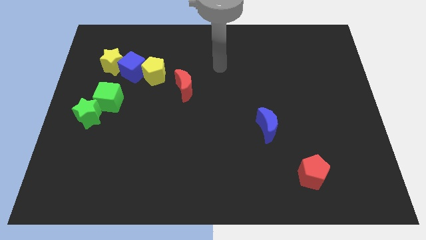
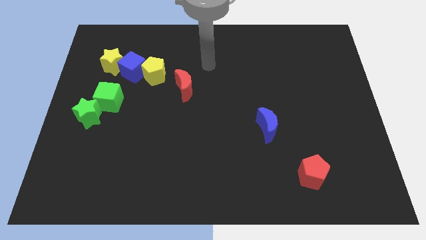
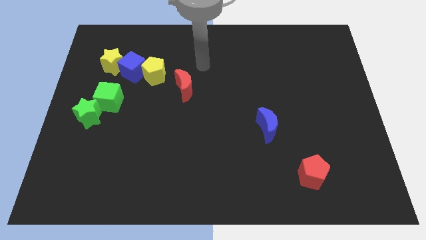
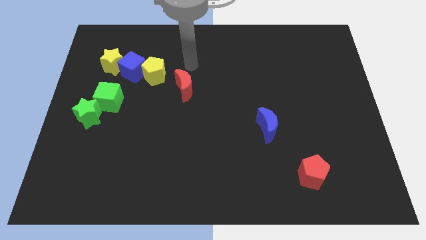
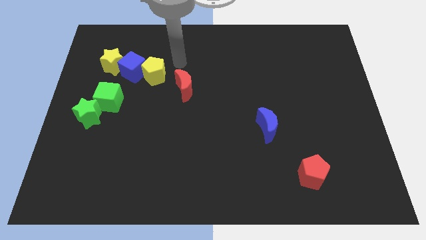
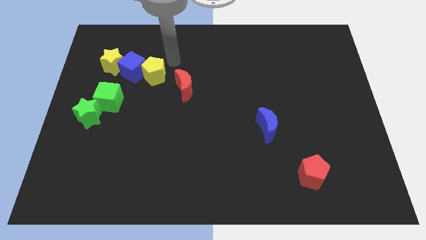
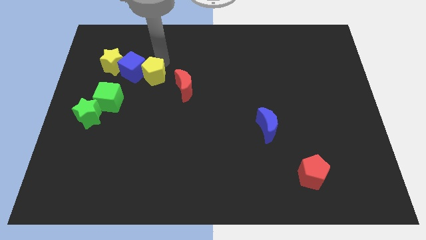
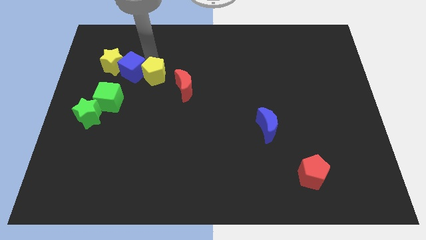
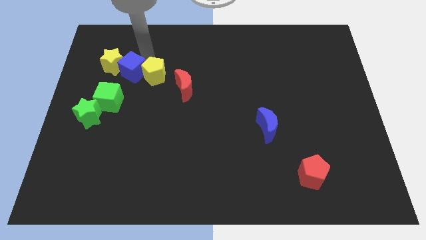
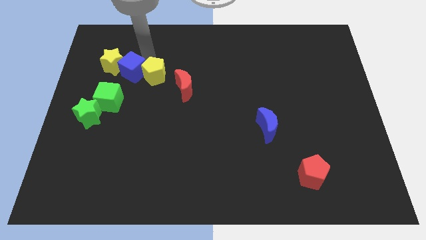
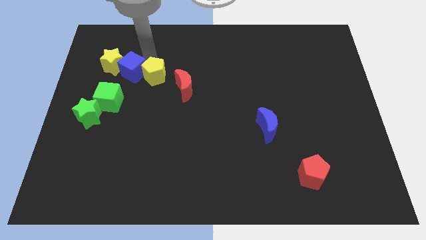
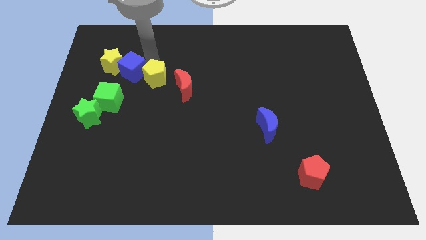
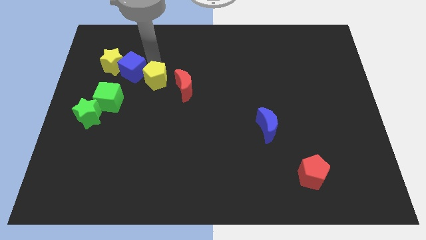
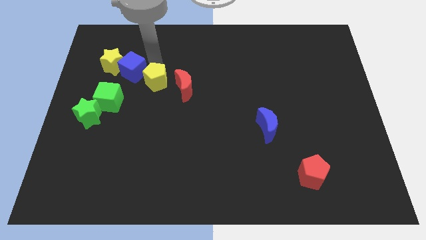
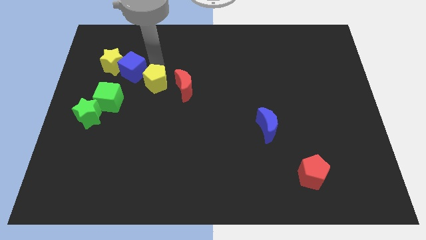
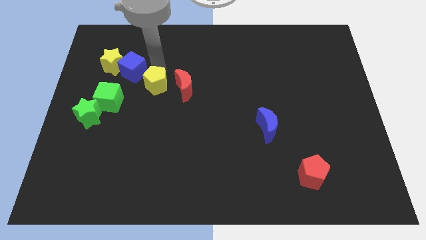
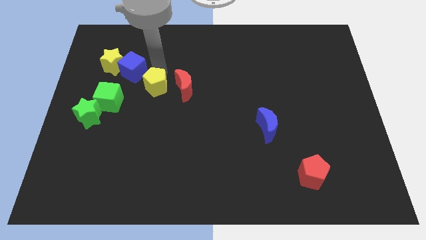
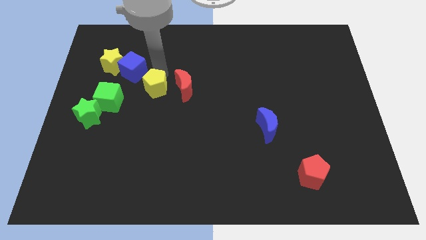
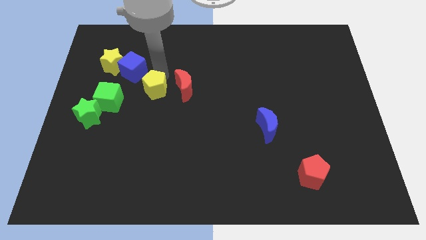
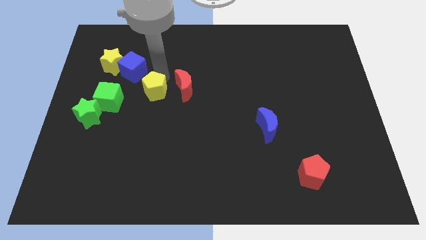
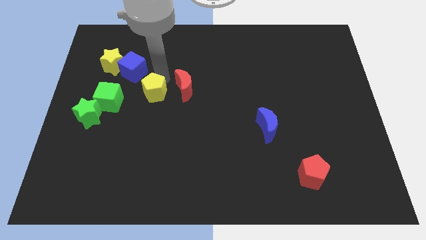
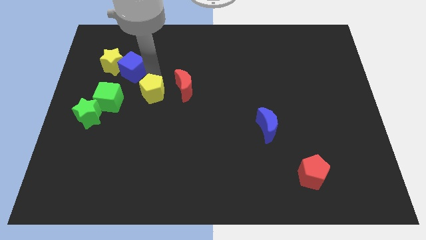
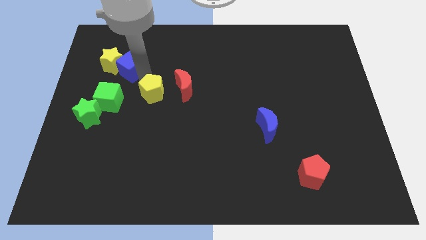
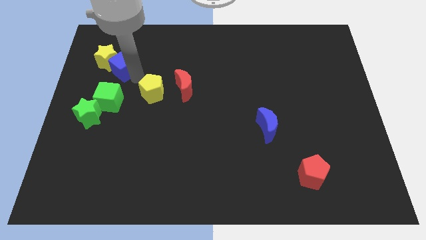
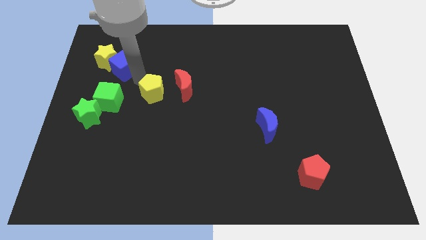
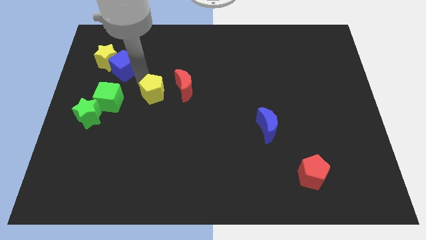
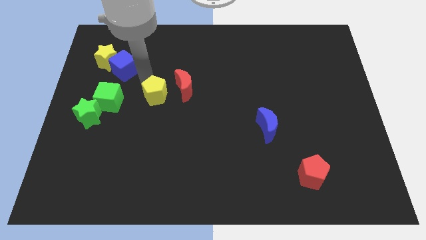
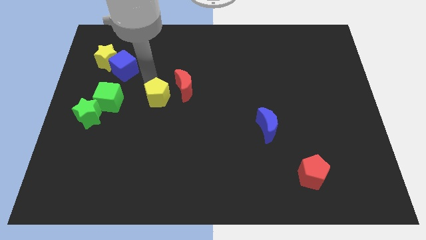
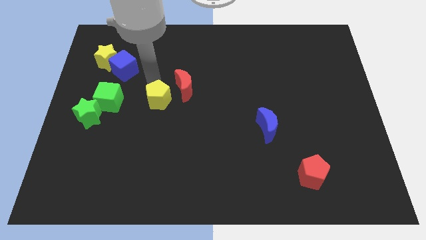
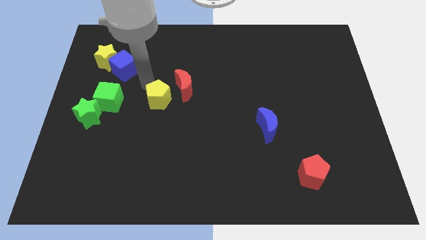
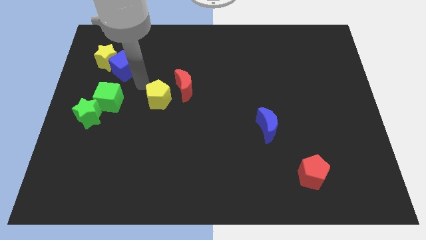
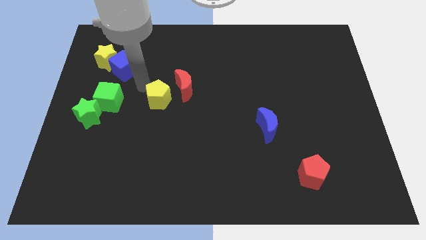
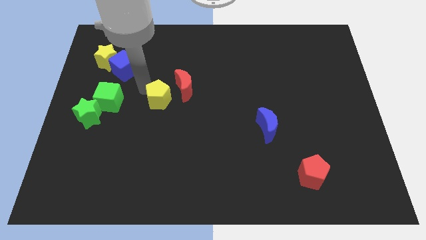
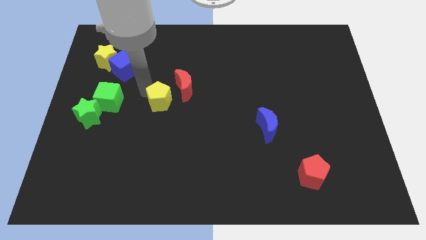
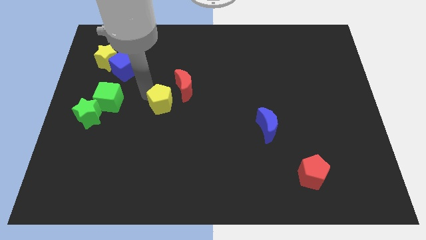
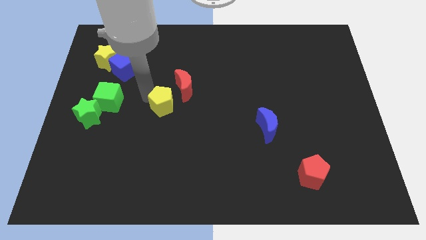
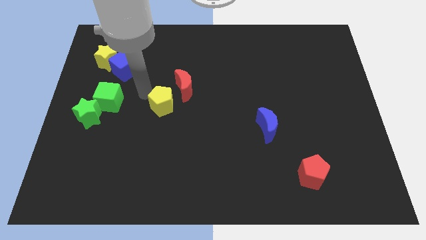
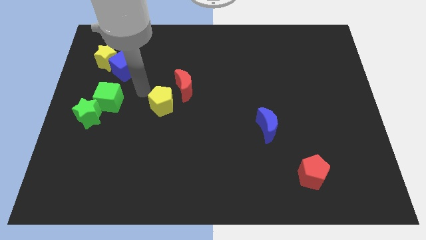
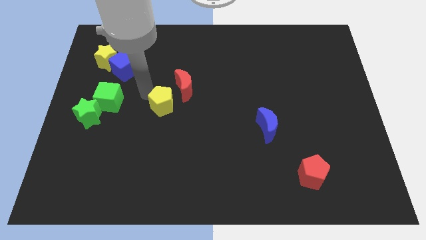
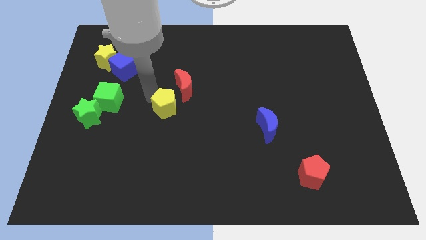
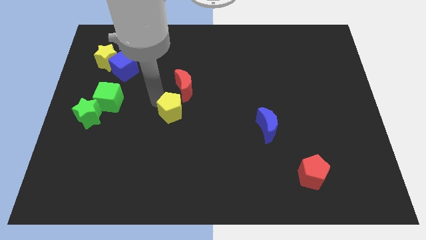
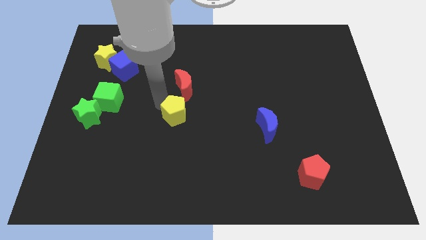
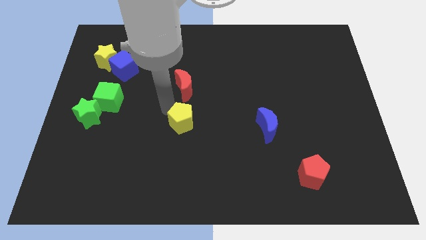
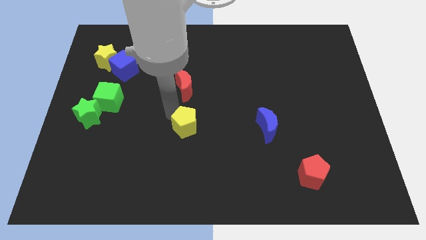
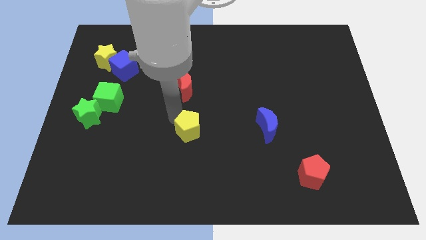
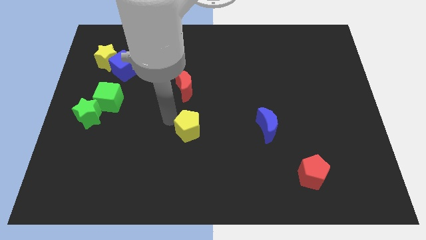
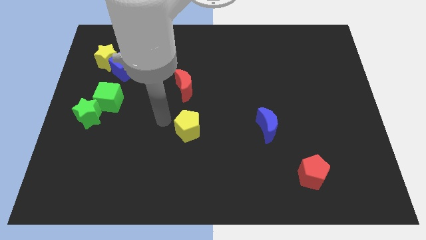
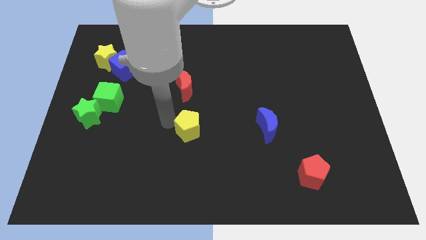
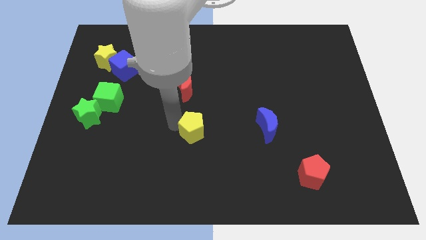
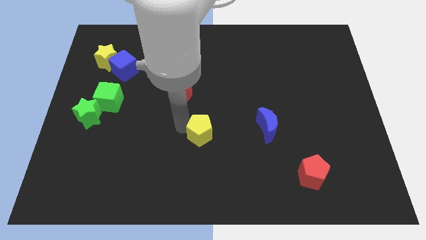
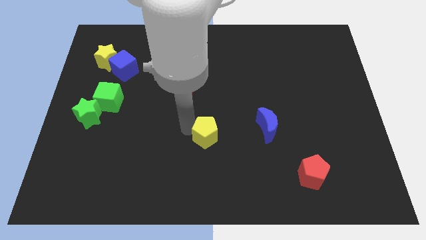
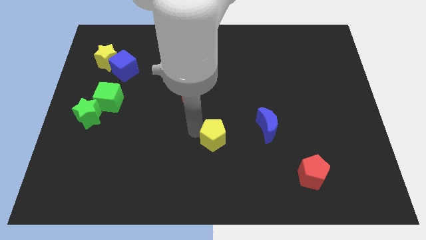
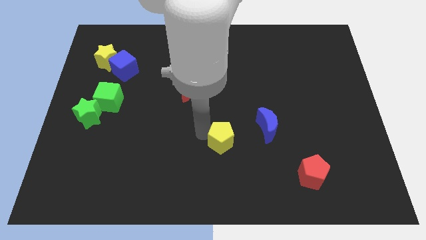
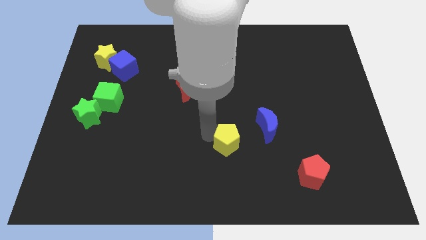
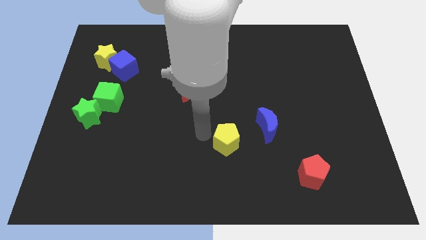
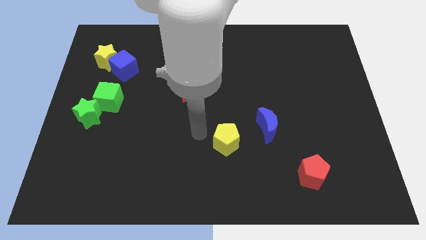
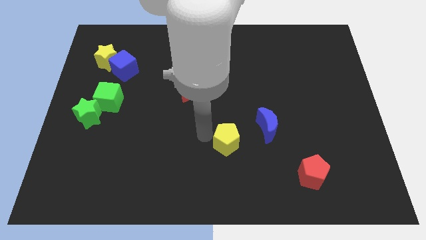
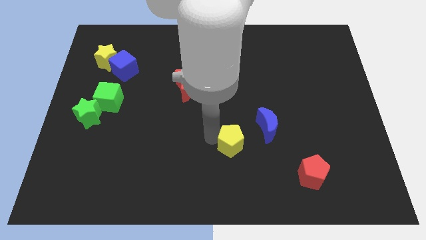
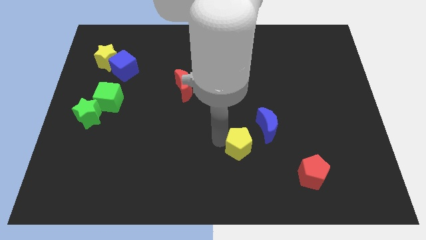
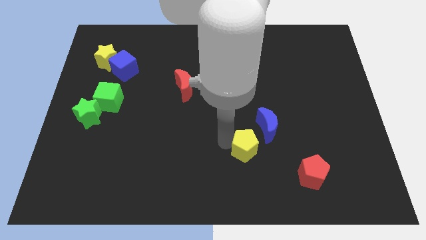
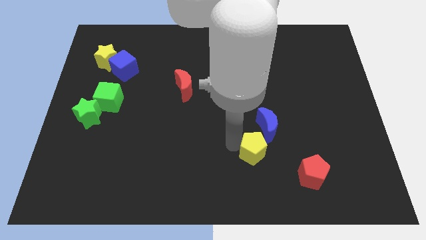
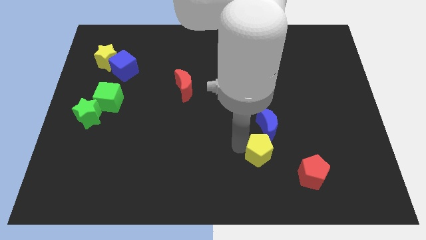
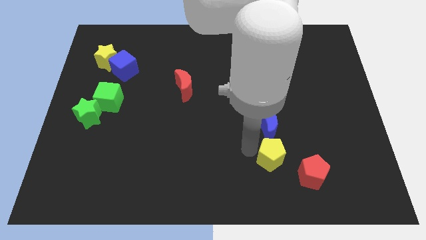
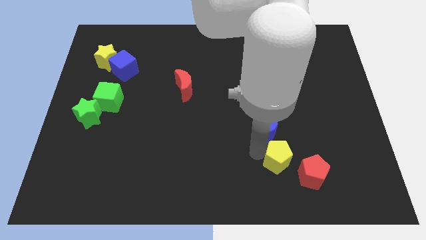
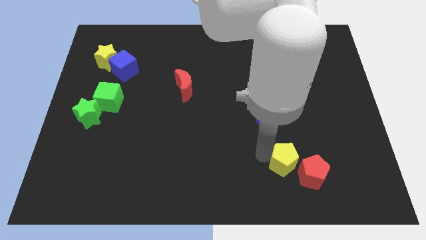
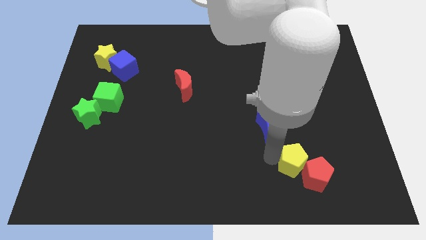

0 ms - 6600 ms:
push the yellow pentagon close to the red pentagon
